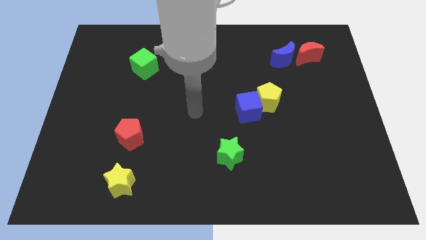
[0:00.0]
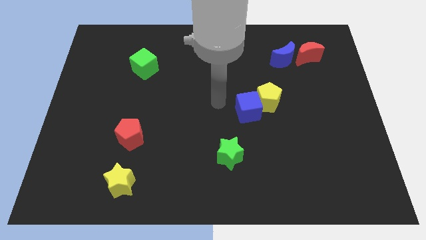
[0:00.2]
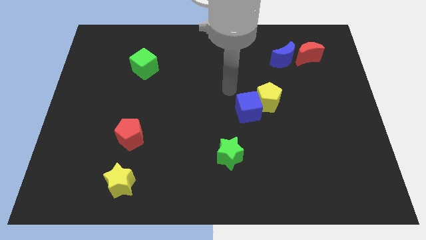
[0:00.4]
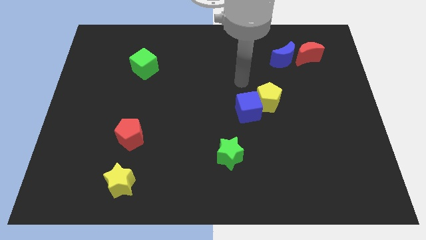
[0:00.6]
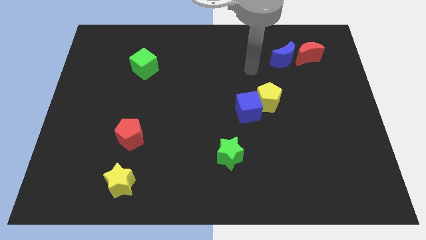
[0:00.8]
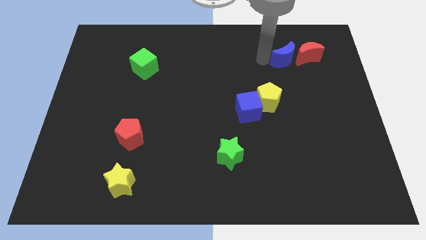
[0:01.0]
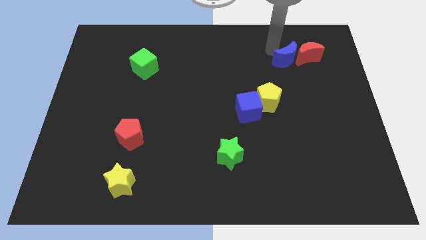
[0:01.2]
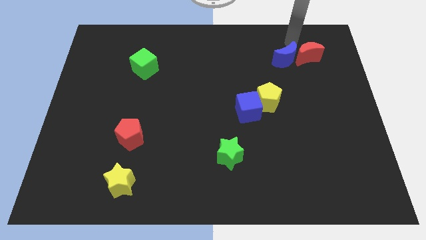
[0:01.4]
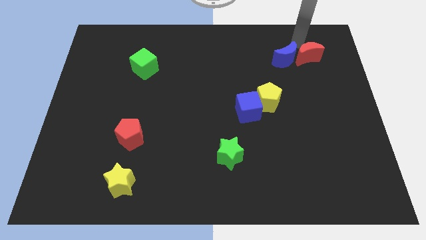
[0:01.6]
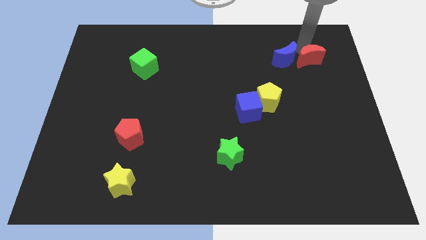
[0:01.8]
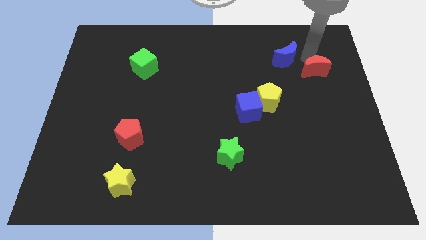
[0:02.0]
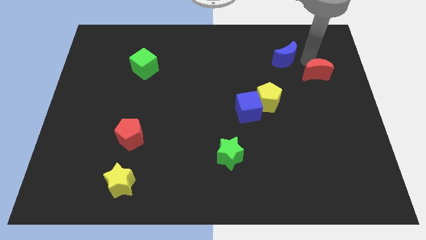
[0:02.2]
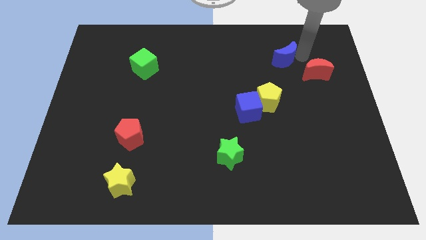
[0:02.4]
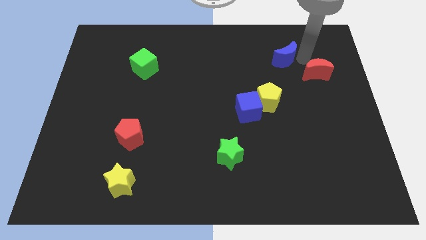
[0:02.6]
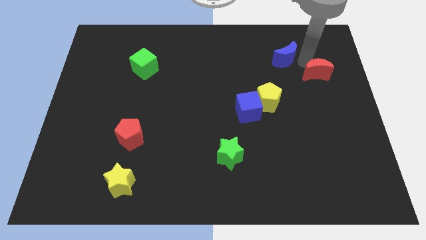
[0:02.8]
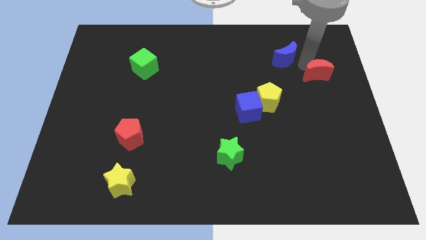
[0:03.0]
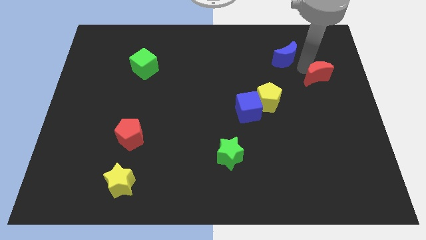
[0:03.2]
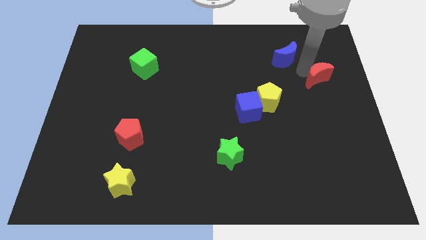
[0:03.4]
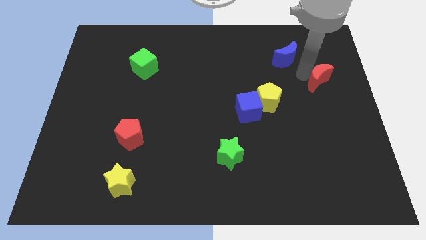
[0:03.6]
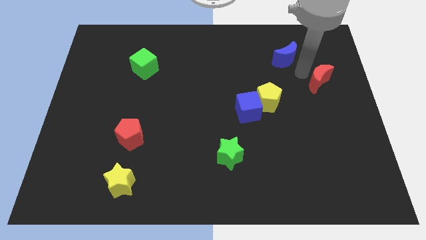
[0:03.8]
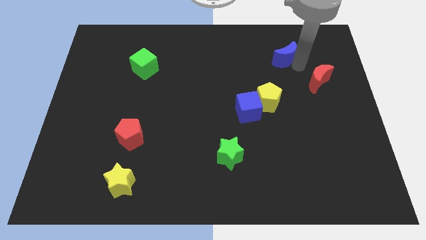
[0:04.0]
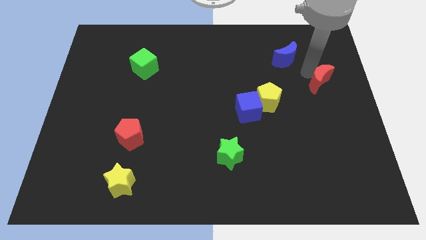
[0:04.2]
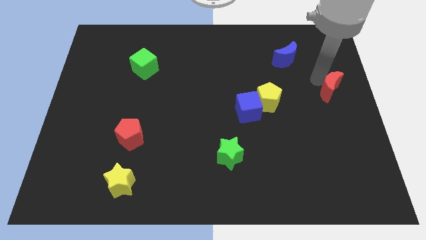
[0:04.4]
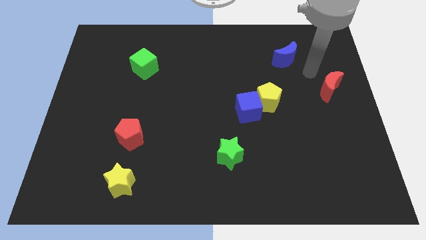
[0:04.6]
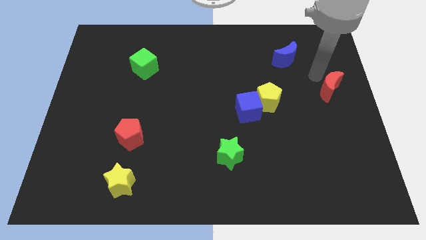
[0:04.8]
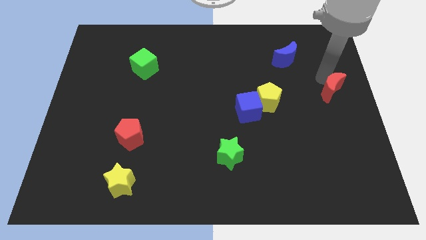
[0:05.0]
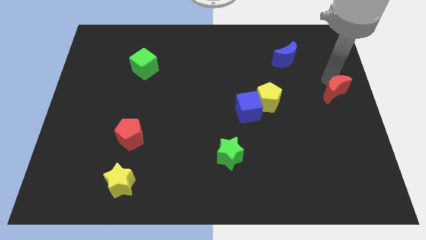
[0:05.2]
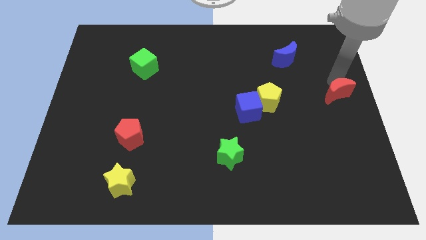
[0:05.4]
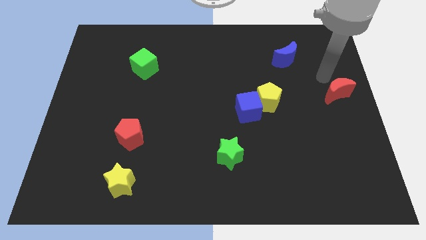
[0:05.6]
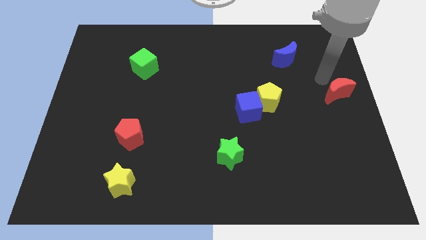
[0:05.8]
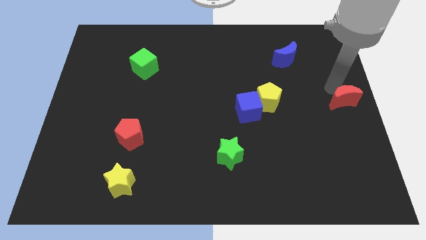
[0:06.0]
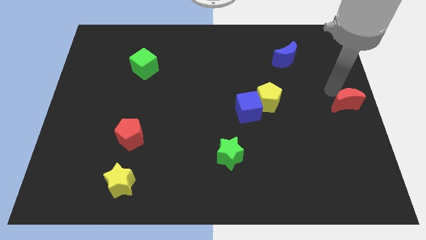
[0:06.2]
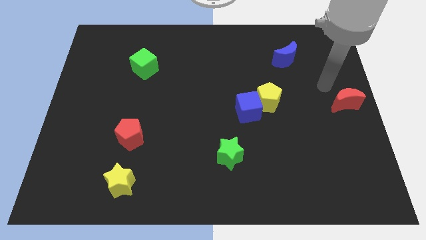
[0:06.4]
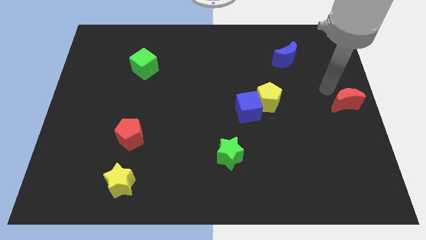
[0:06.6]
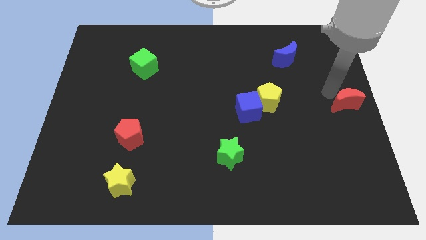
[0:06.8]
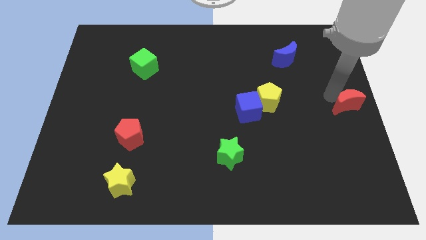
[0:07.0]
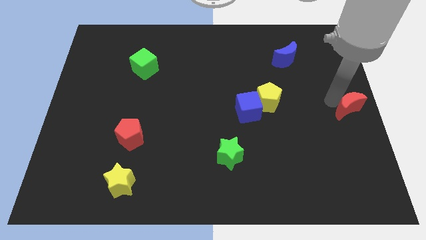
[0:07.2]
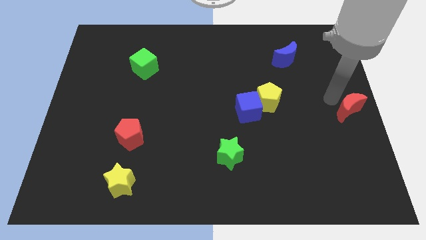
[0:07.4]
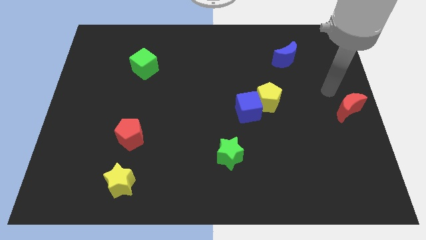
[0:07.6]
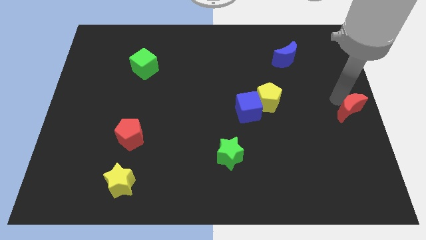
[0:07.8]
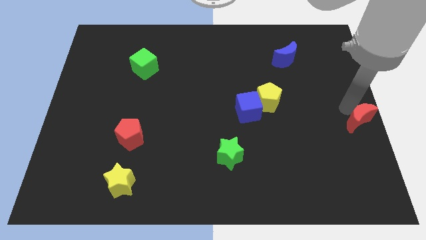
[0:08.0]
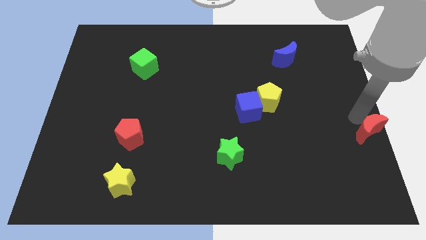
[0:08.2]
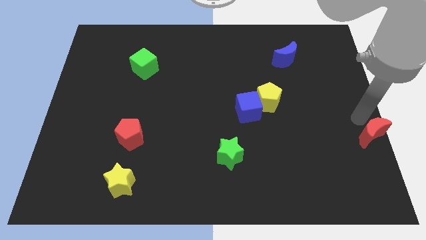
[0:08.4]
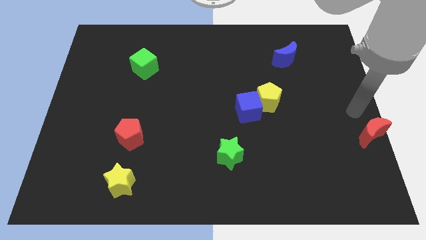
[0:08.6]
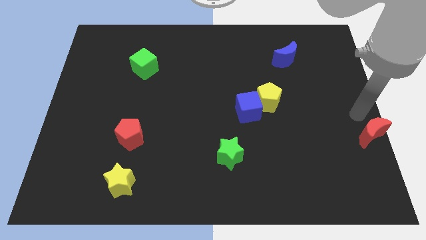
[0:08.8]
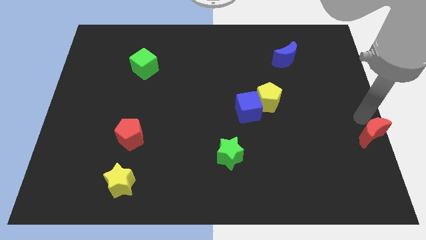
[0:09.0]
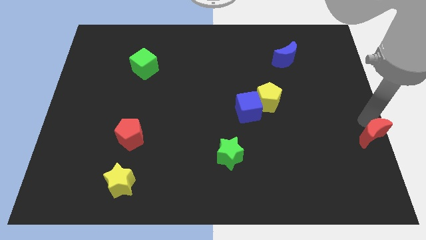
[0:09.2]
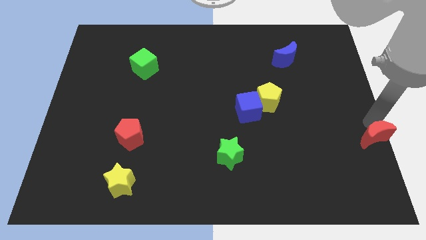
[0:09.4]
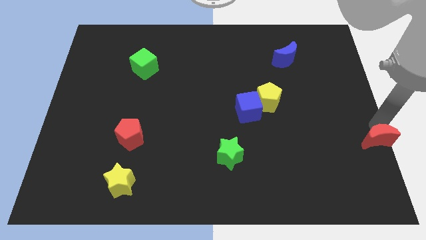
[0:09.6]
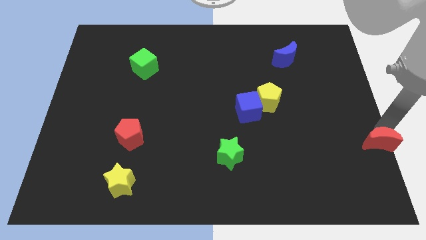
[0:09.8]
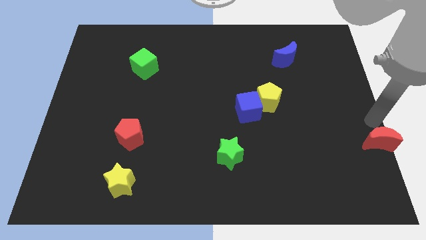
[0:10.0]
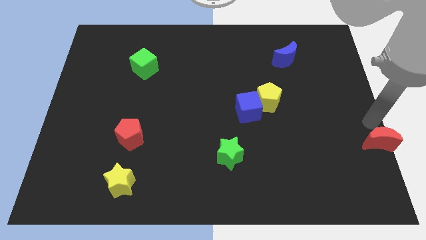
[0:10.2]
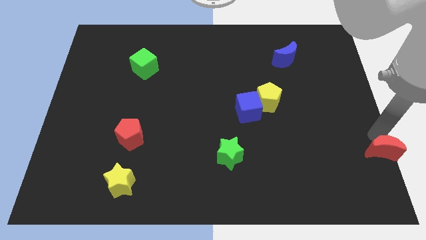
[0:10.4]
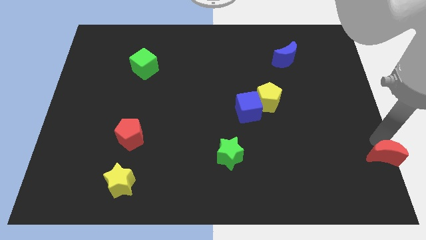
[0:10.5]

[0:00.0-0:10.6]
push the red moon to the lower right corner

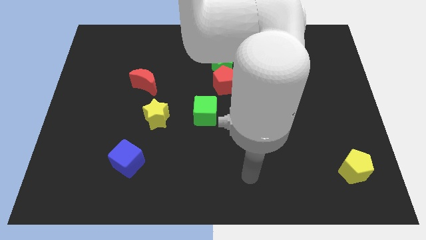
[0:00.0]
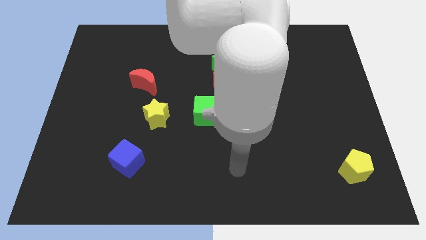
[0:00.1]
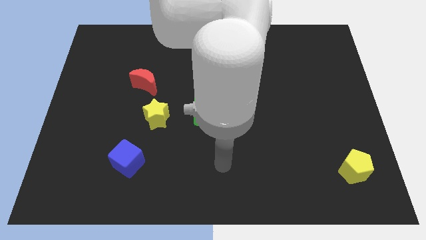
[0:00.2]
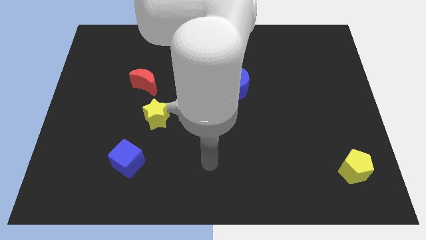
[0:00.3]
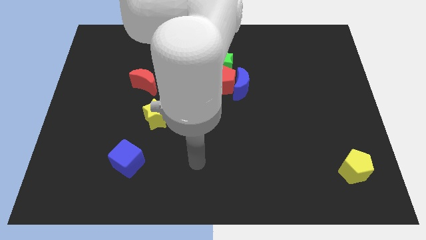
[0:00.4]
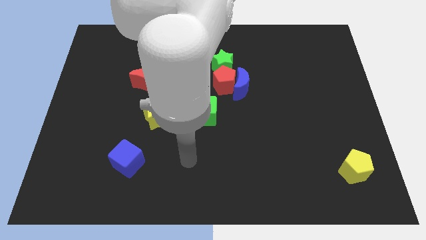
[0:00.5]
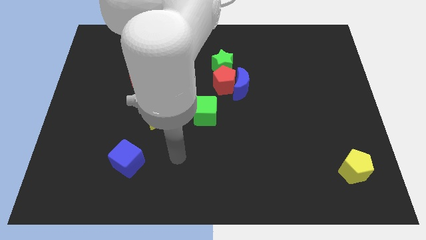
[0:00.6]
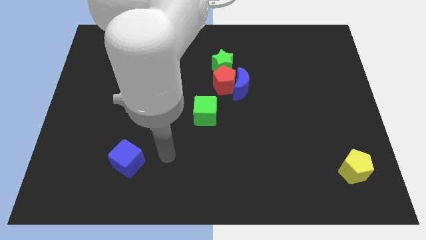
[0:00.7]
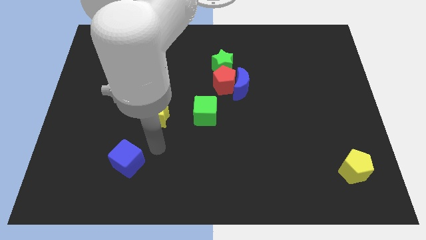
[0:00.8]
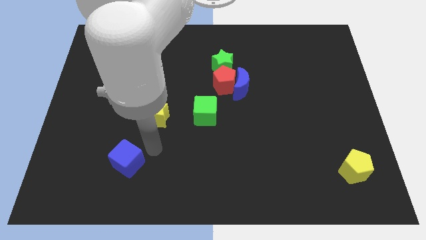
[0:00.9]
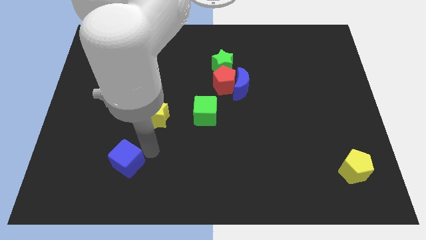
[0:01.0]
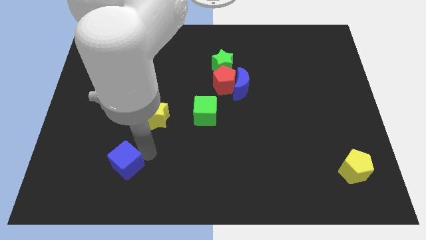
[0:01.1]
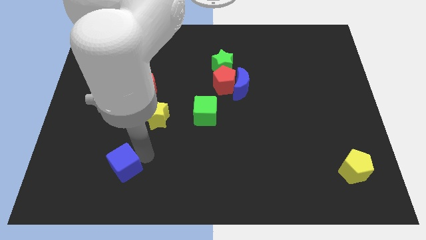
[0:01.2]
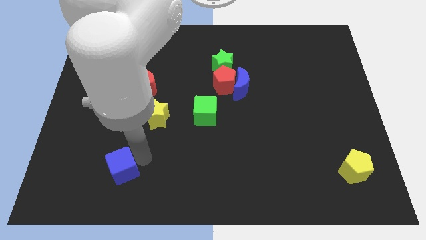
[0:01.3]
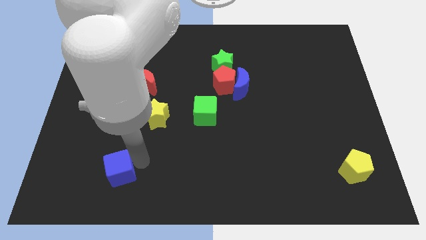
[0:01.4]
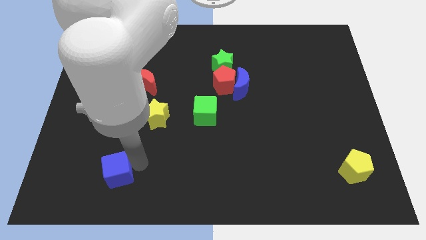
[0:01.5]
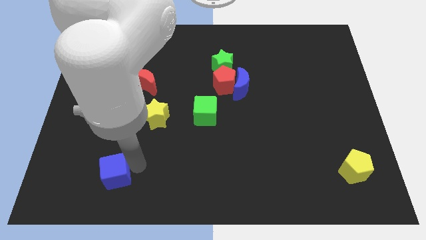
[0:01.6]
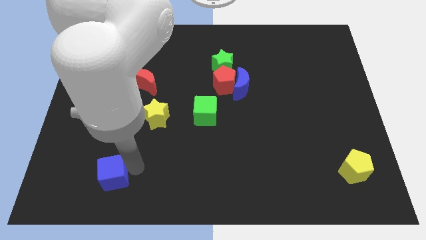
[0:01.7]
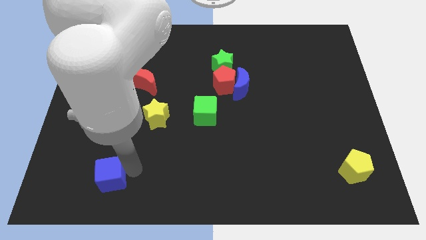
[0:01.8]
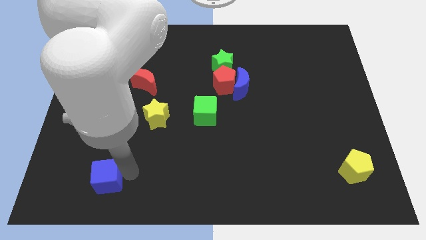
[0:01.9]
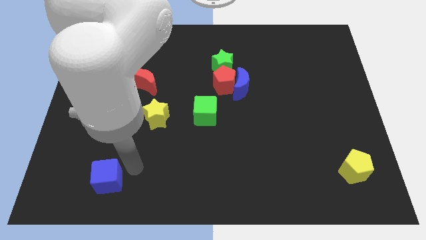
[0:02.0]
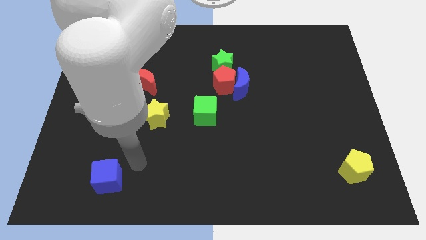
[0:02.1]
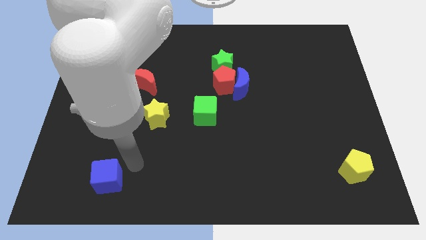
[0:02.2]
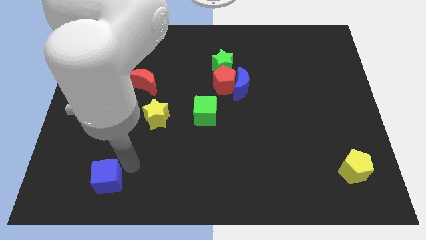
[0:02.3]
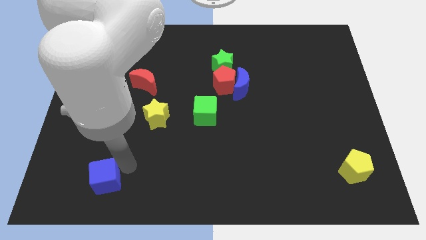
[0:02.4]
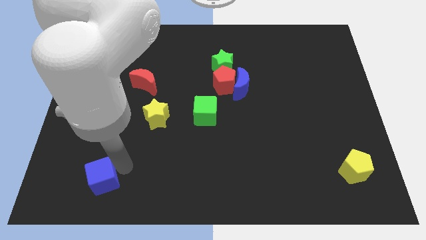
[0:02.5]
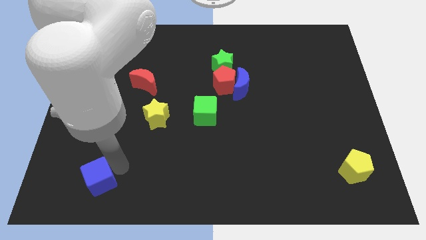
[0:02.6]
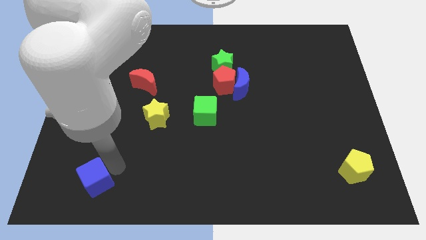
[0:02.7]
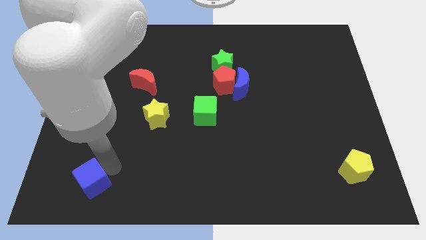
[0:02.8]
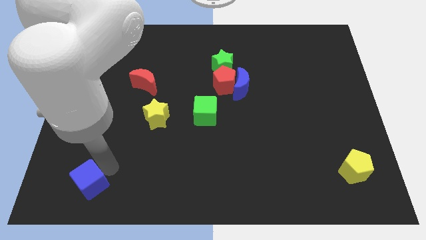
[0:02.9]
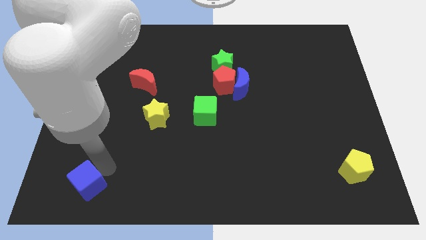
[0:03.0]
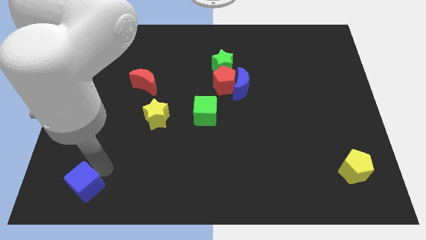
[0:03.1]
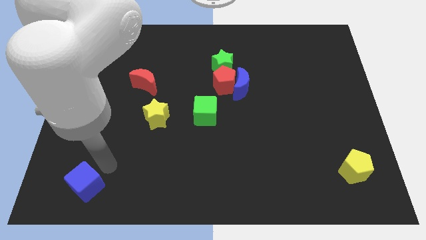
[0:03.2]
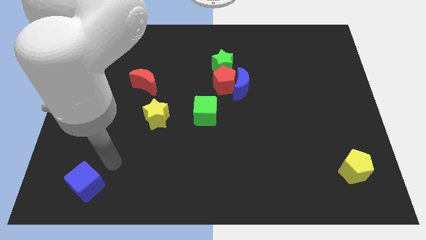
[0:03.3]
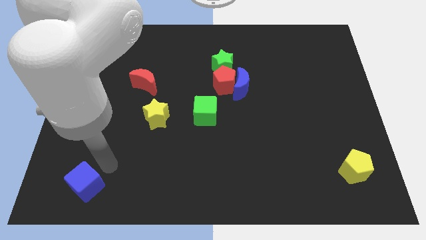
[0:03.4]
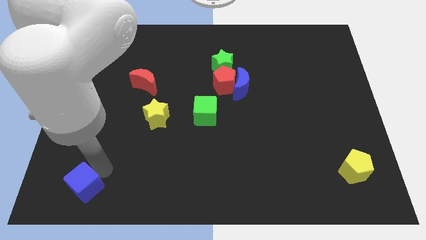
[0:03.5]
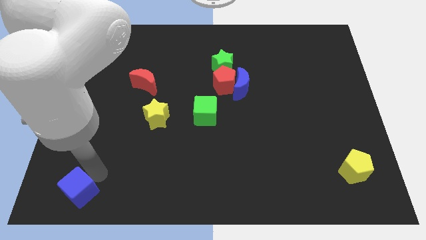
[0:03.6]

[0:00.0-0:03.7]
move the blue cube to the bottom left of the board
